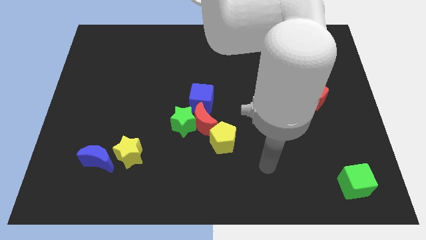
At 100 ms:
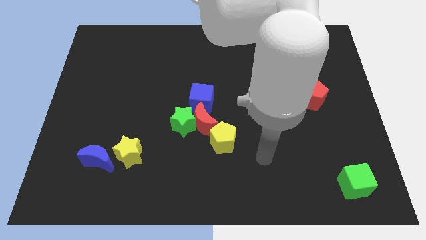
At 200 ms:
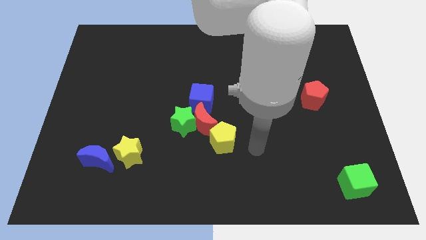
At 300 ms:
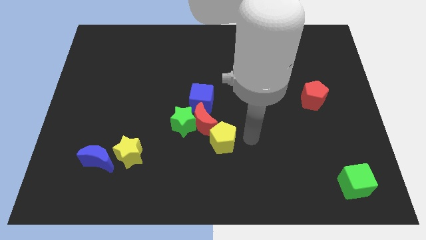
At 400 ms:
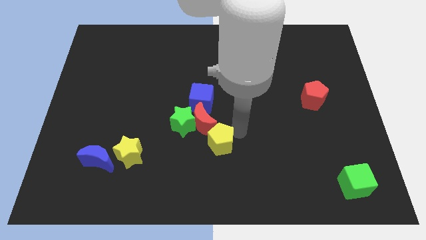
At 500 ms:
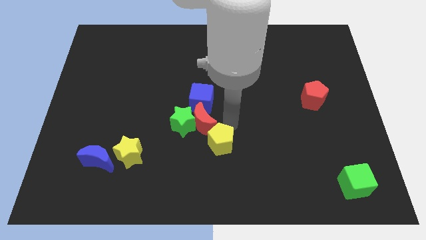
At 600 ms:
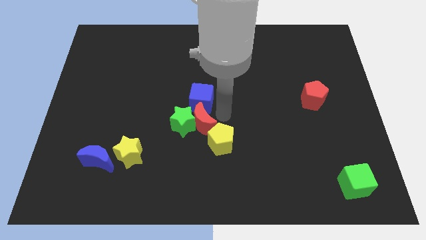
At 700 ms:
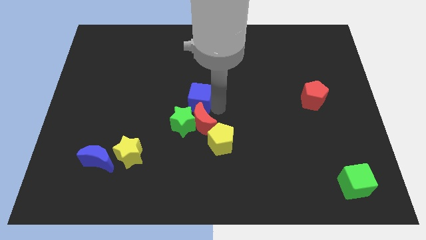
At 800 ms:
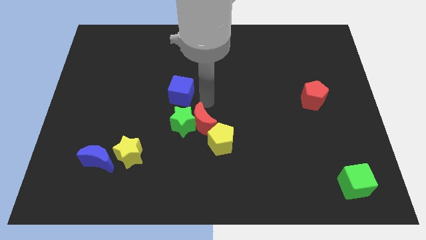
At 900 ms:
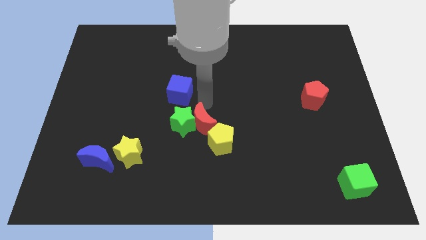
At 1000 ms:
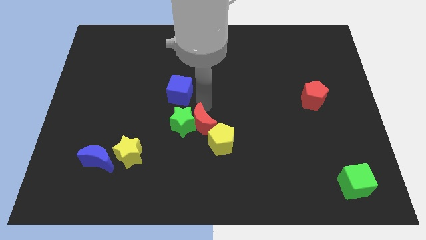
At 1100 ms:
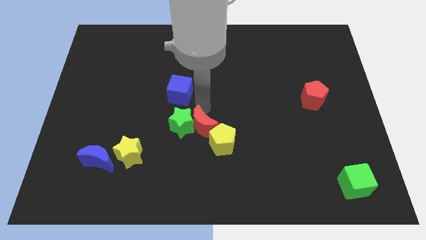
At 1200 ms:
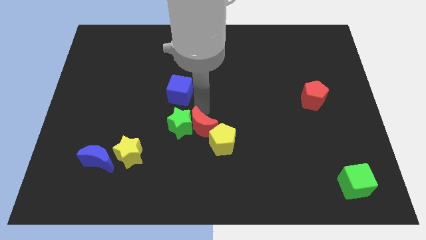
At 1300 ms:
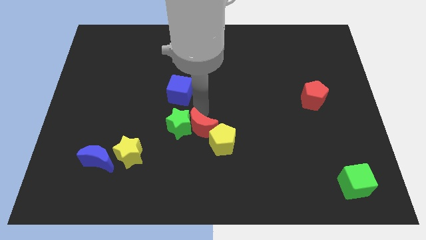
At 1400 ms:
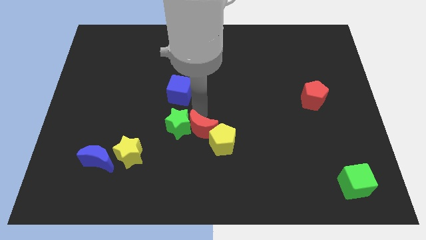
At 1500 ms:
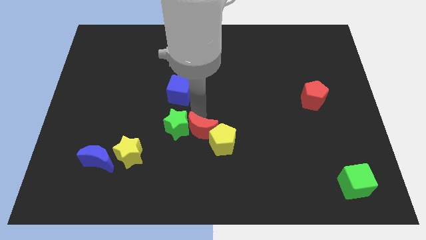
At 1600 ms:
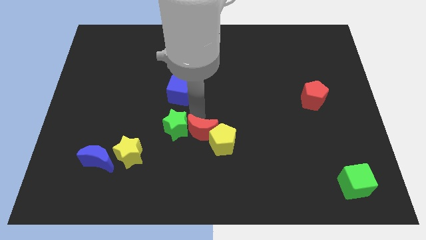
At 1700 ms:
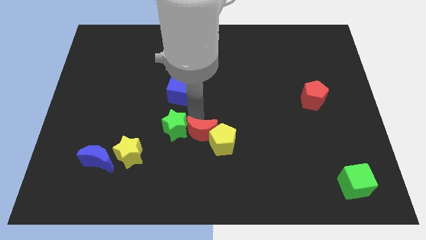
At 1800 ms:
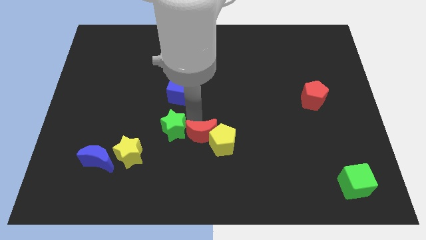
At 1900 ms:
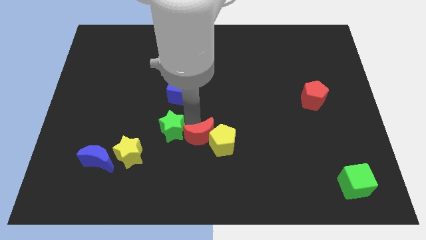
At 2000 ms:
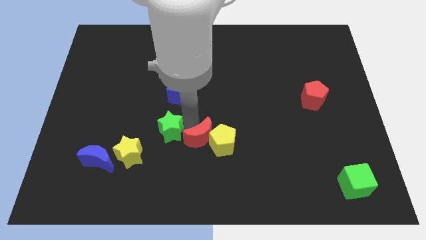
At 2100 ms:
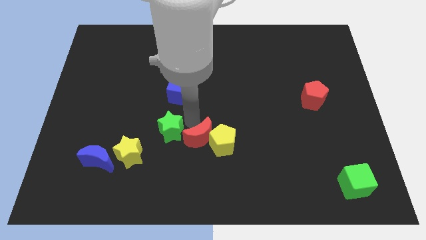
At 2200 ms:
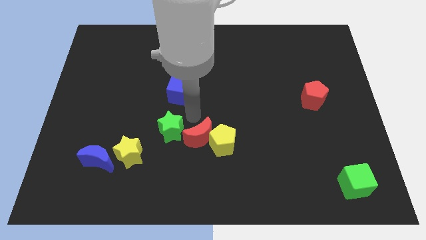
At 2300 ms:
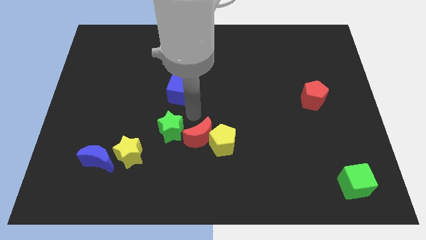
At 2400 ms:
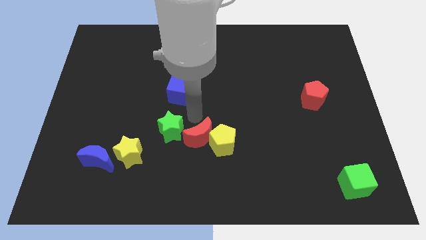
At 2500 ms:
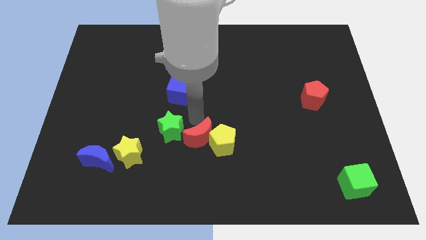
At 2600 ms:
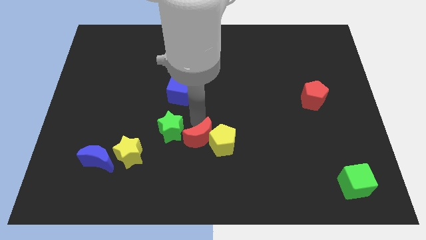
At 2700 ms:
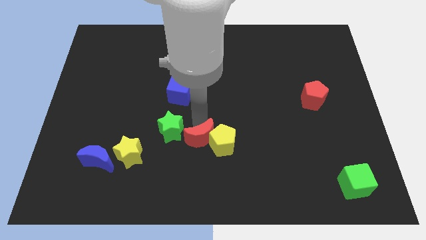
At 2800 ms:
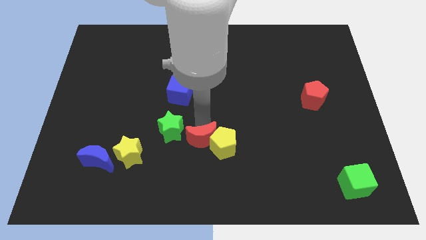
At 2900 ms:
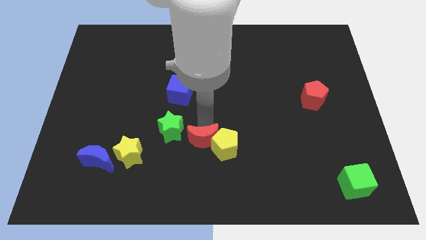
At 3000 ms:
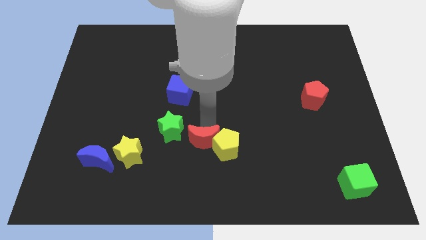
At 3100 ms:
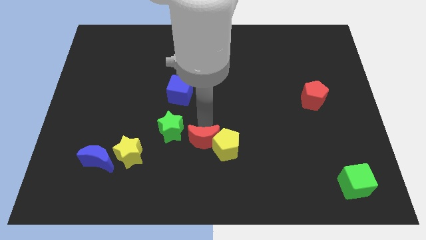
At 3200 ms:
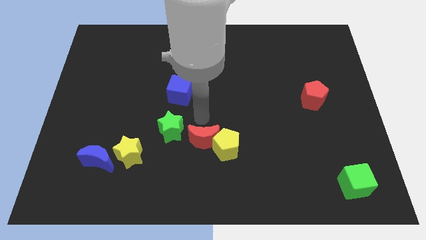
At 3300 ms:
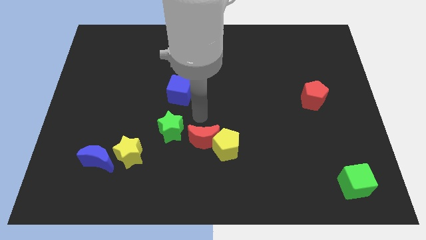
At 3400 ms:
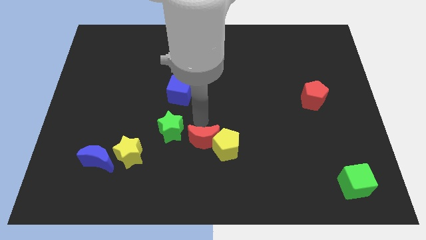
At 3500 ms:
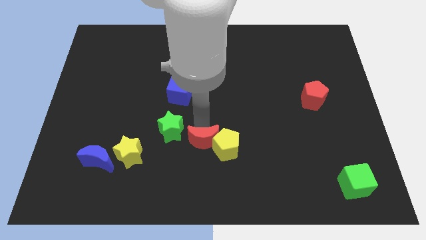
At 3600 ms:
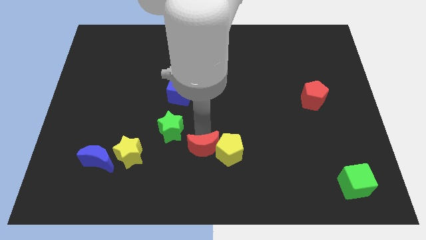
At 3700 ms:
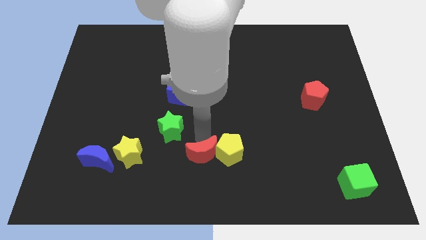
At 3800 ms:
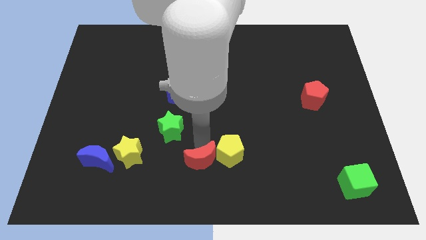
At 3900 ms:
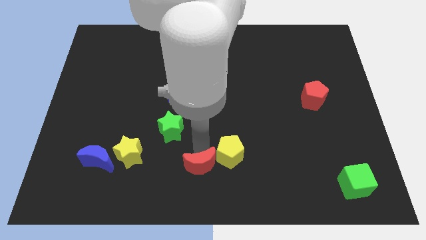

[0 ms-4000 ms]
separate the red moon from the group

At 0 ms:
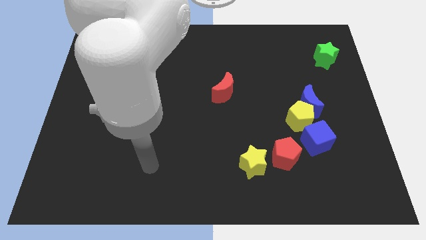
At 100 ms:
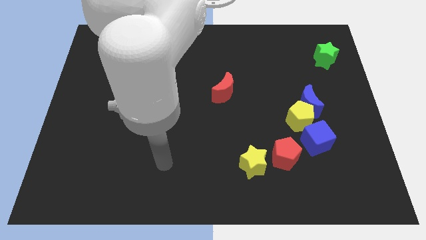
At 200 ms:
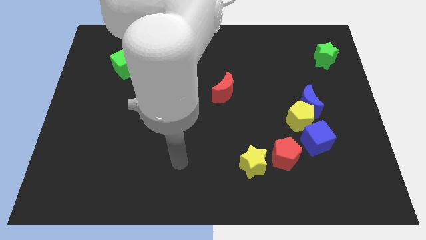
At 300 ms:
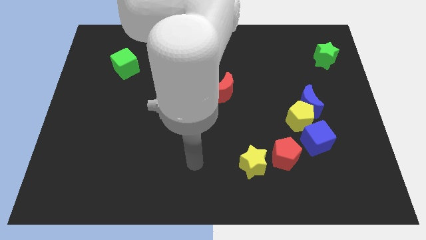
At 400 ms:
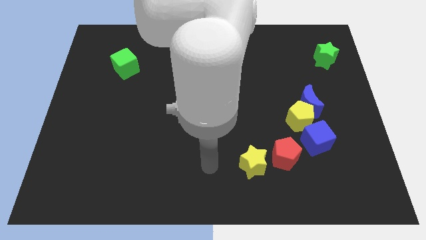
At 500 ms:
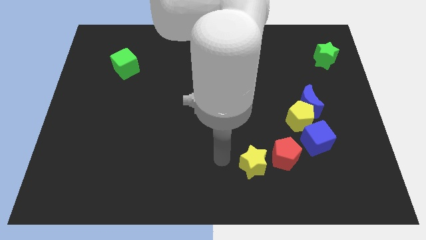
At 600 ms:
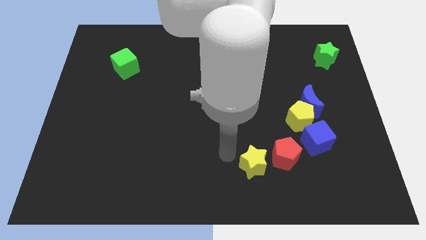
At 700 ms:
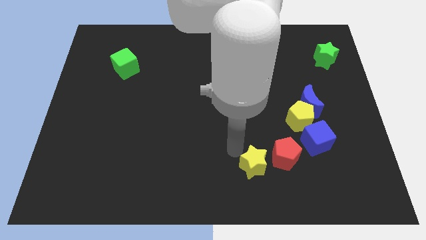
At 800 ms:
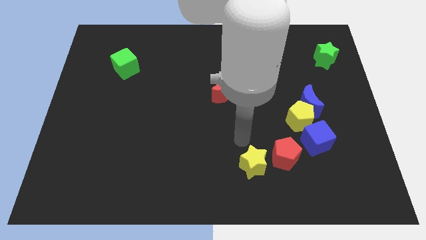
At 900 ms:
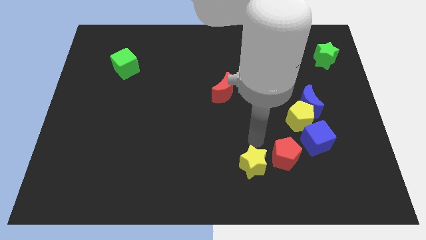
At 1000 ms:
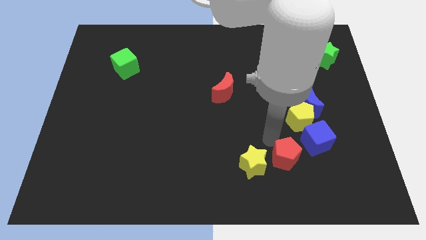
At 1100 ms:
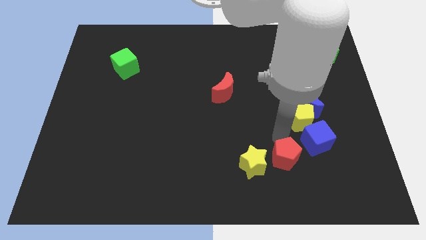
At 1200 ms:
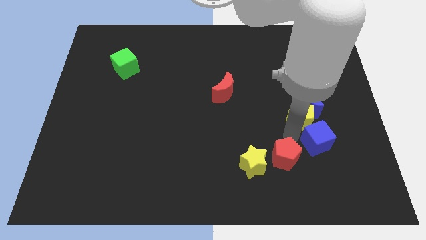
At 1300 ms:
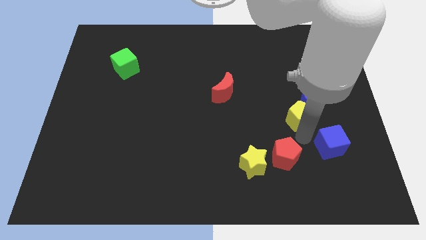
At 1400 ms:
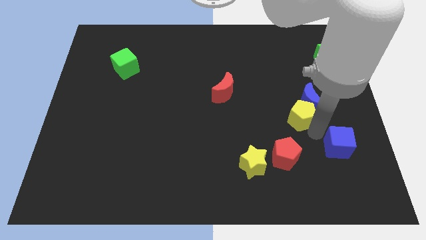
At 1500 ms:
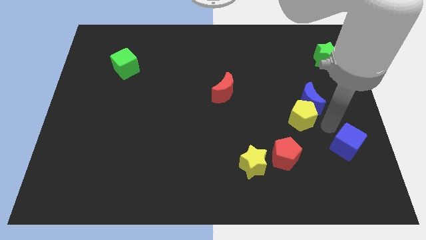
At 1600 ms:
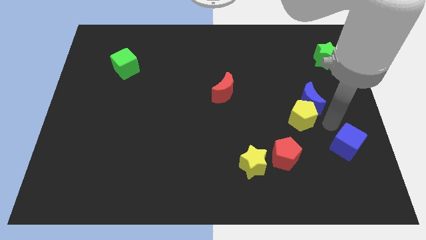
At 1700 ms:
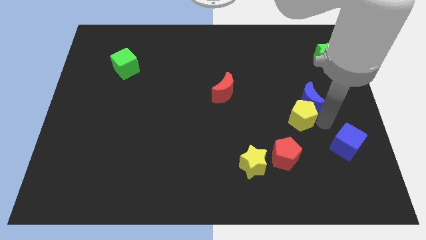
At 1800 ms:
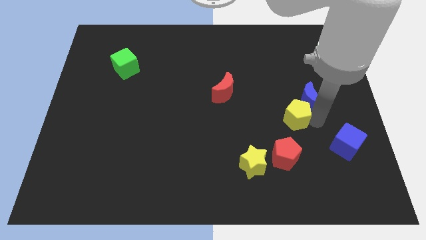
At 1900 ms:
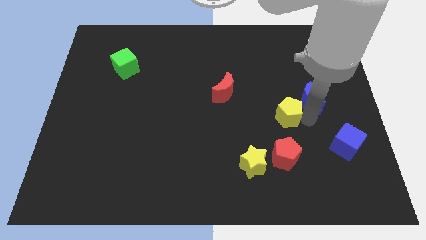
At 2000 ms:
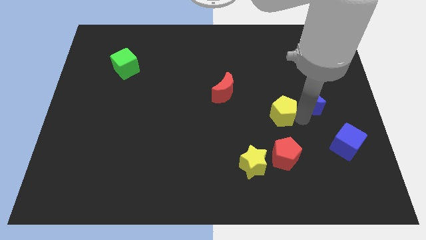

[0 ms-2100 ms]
move the yellow pentagon away from the blue moon and blue cube

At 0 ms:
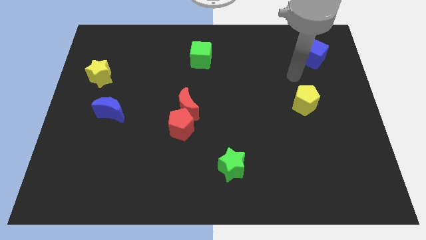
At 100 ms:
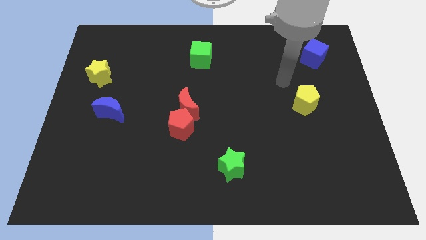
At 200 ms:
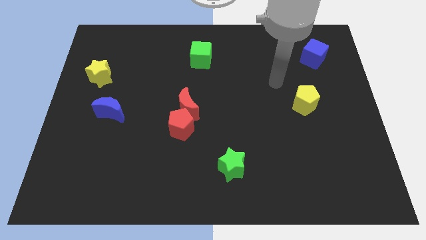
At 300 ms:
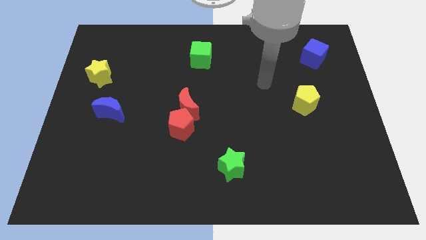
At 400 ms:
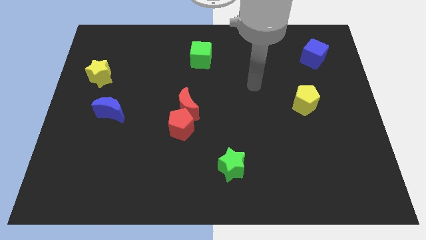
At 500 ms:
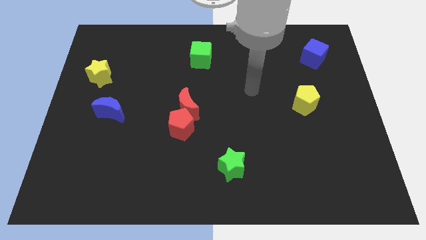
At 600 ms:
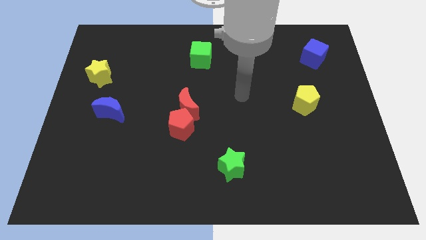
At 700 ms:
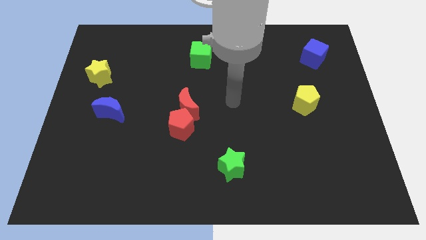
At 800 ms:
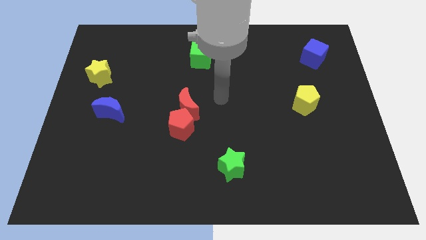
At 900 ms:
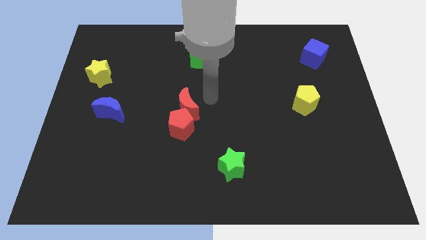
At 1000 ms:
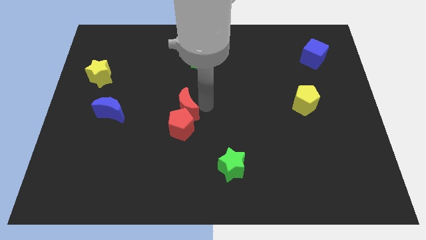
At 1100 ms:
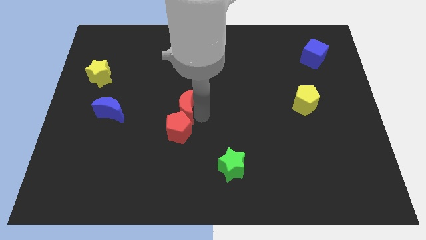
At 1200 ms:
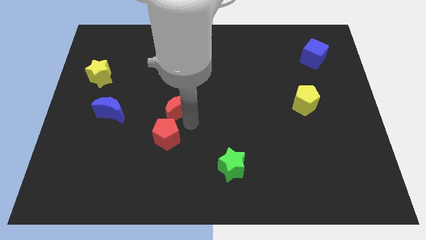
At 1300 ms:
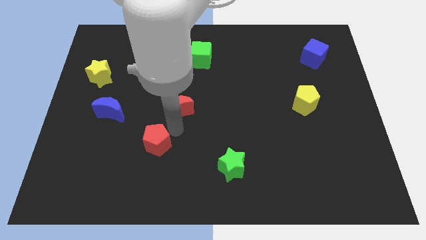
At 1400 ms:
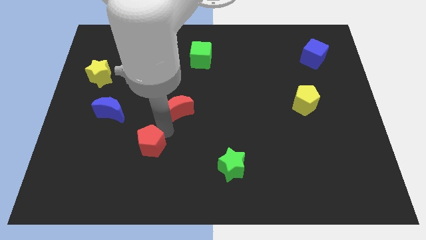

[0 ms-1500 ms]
move the red moon away from the red pentagon

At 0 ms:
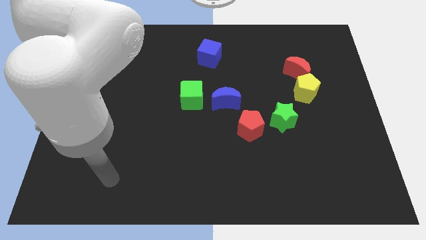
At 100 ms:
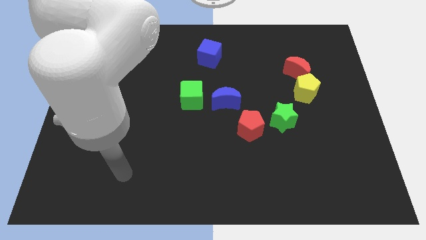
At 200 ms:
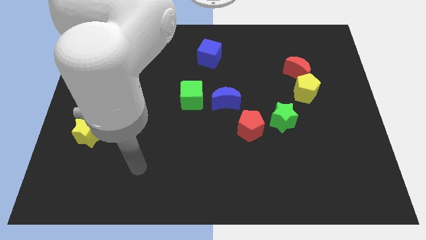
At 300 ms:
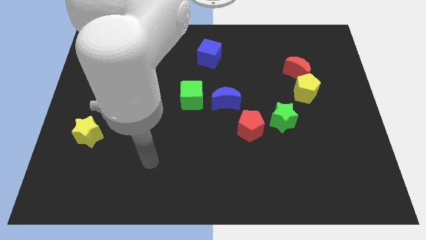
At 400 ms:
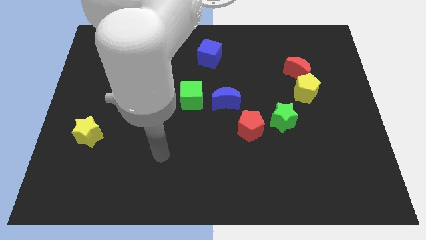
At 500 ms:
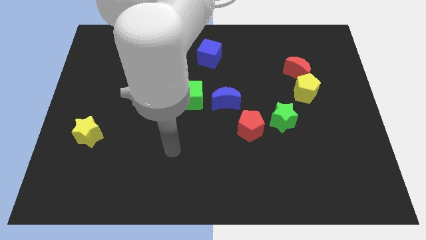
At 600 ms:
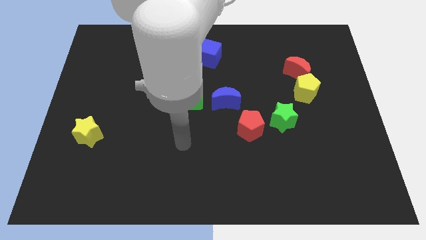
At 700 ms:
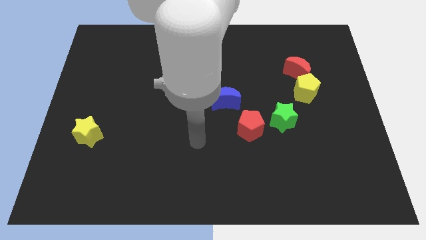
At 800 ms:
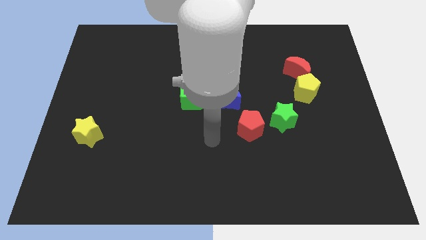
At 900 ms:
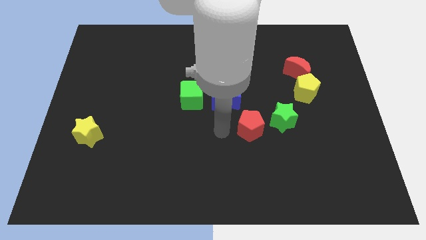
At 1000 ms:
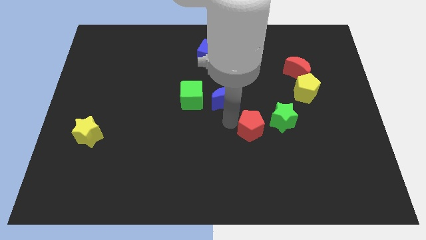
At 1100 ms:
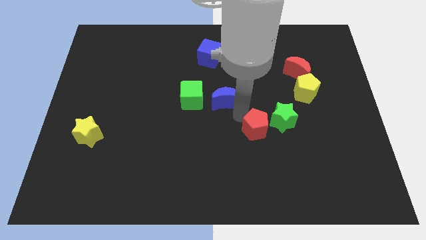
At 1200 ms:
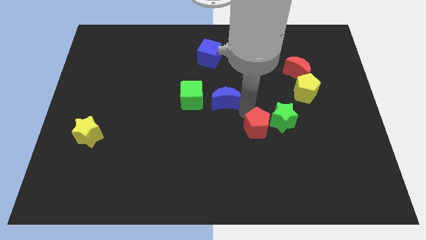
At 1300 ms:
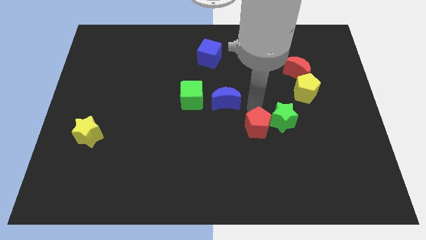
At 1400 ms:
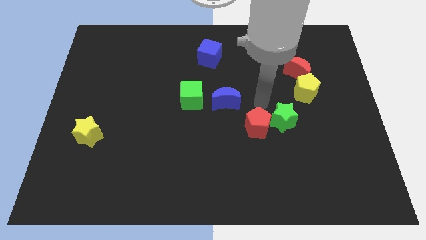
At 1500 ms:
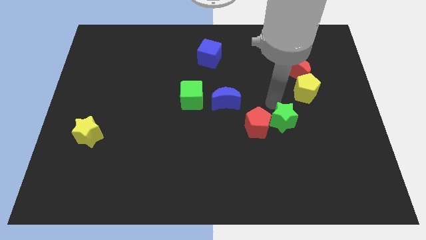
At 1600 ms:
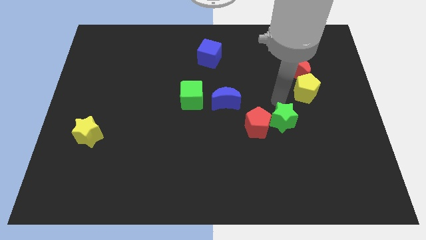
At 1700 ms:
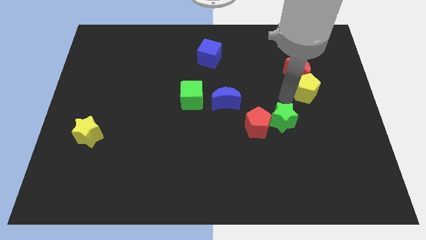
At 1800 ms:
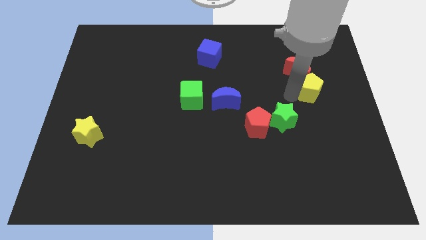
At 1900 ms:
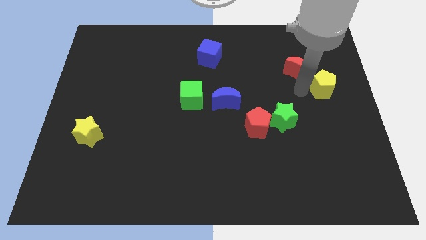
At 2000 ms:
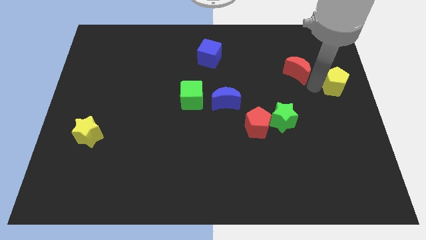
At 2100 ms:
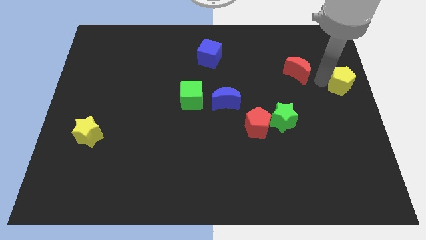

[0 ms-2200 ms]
separate the red moon from the yellow pentagon
